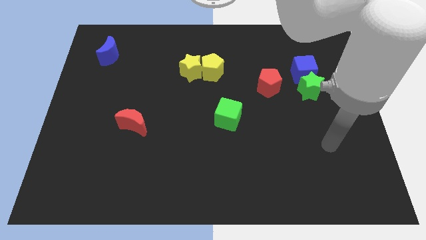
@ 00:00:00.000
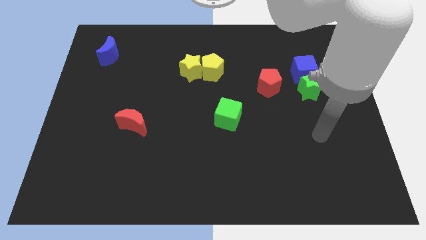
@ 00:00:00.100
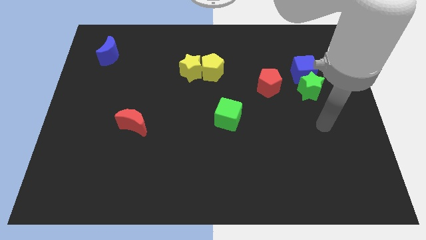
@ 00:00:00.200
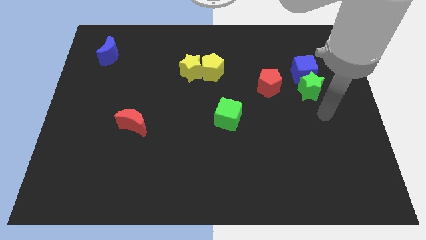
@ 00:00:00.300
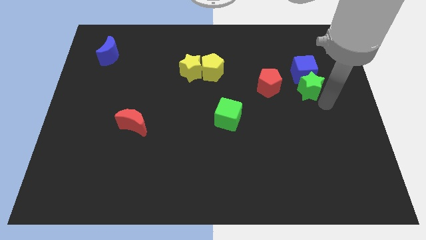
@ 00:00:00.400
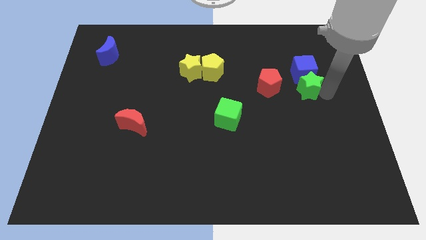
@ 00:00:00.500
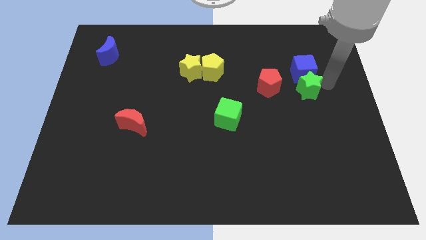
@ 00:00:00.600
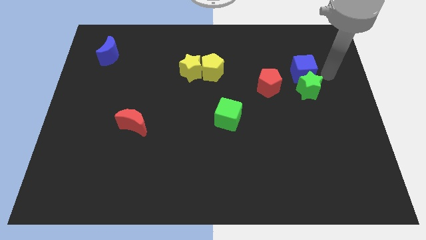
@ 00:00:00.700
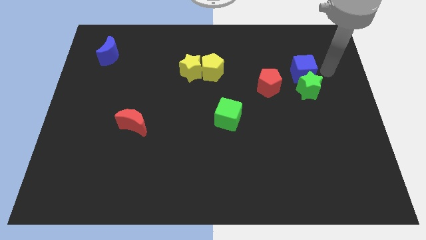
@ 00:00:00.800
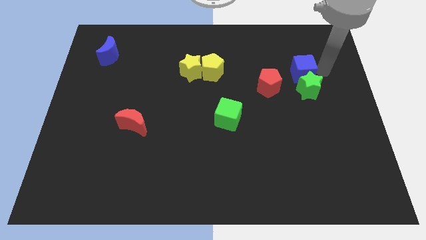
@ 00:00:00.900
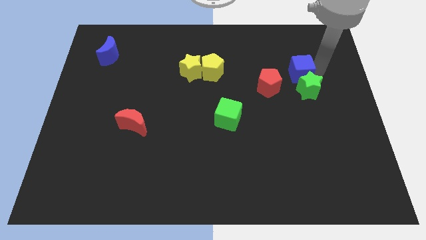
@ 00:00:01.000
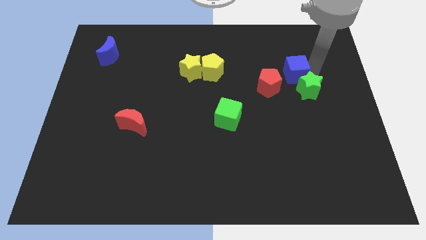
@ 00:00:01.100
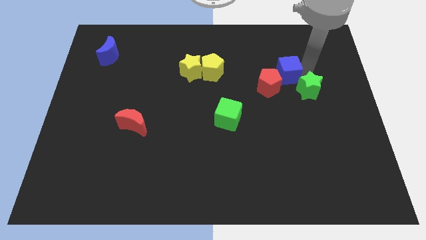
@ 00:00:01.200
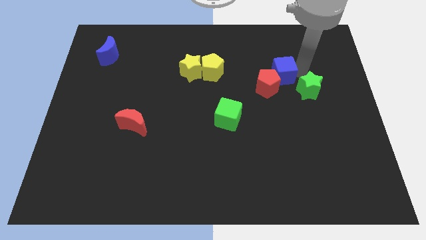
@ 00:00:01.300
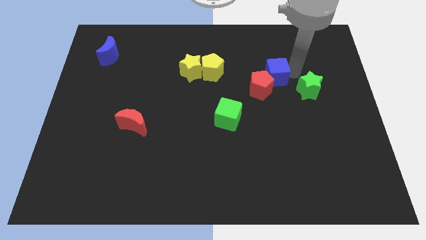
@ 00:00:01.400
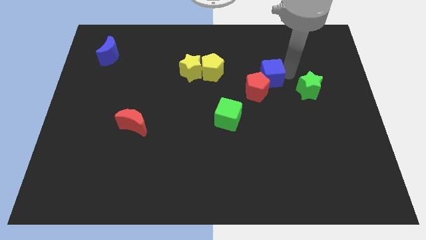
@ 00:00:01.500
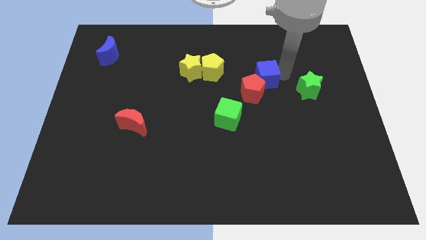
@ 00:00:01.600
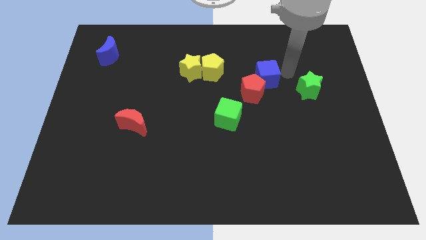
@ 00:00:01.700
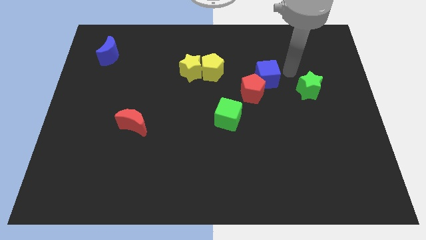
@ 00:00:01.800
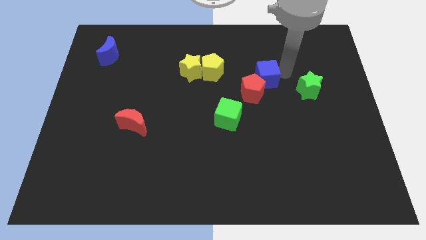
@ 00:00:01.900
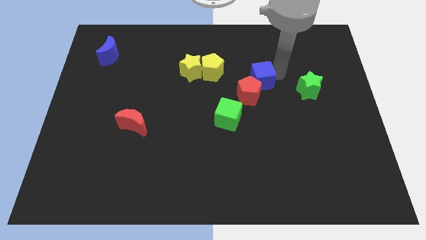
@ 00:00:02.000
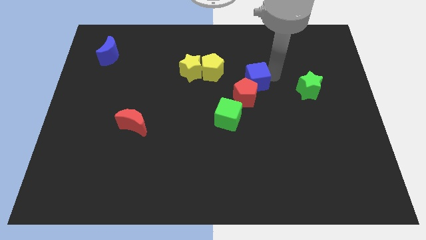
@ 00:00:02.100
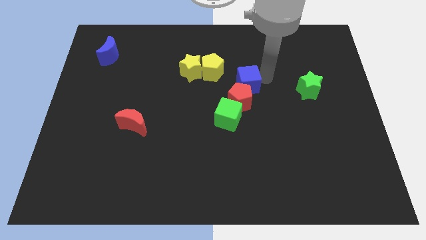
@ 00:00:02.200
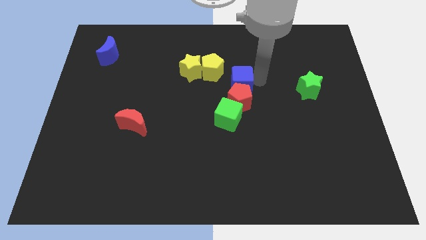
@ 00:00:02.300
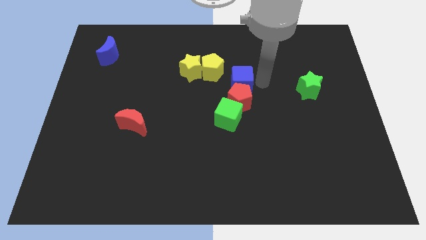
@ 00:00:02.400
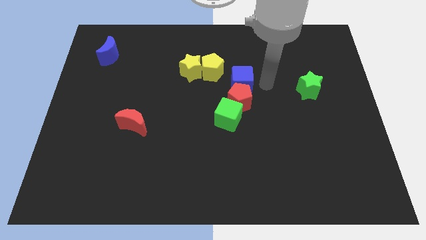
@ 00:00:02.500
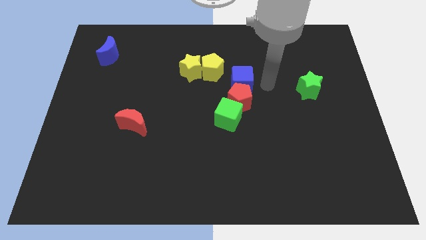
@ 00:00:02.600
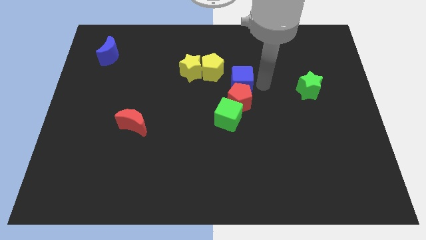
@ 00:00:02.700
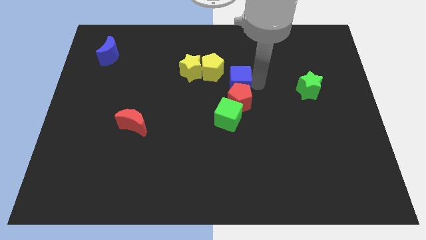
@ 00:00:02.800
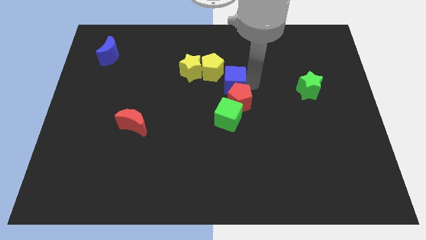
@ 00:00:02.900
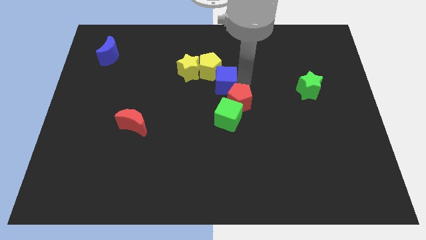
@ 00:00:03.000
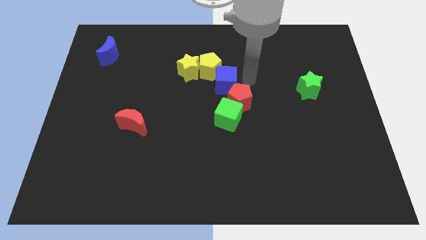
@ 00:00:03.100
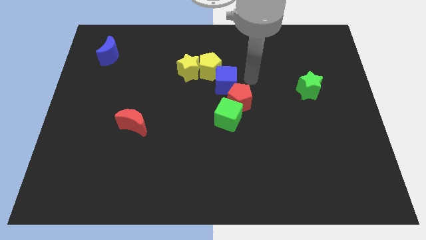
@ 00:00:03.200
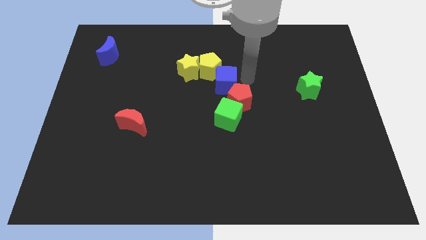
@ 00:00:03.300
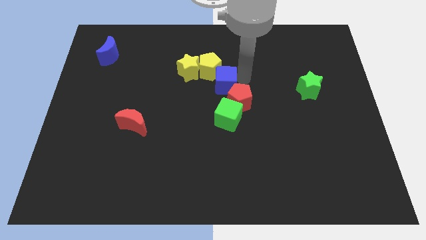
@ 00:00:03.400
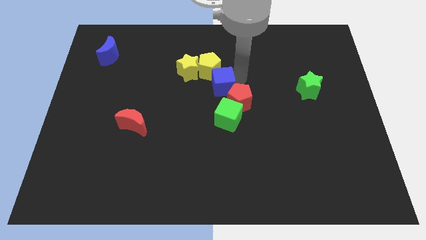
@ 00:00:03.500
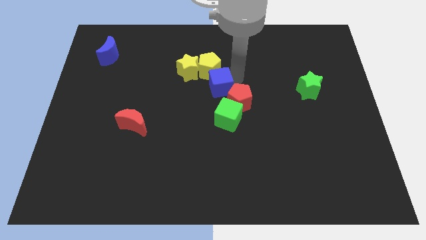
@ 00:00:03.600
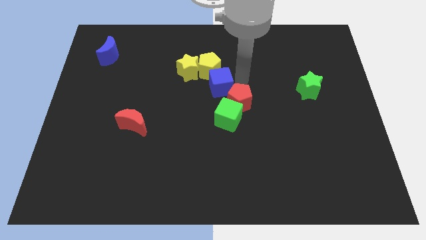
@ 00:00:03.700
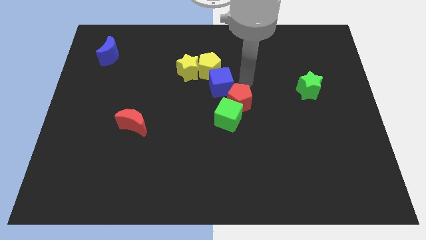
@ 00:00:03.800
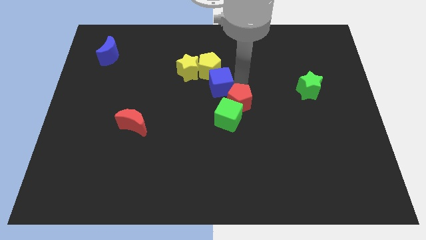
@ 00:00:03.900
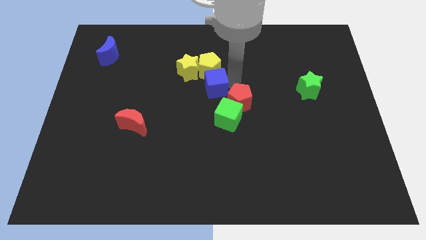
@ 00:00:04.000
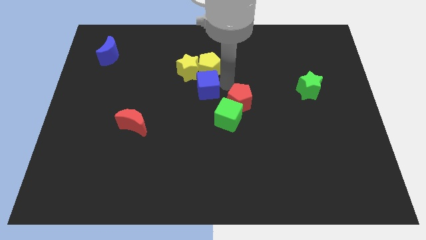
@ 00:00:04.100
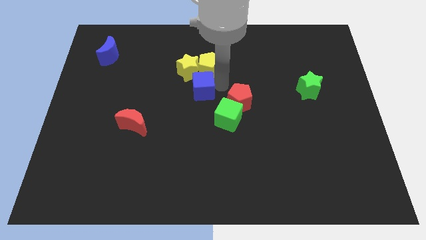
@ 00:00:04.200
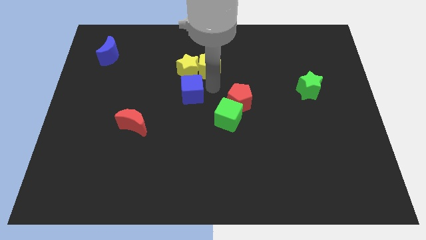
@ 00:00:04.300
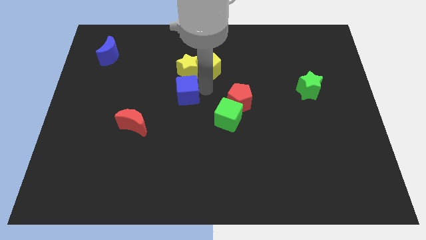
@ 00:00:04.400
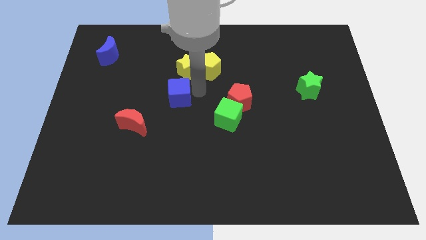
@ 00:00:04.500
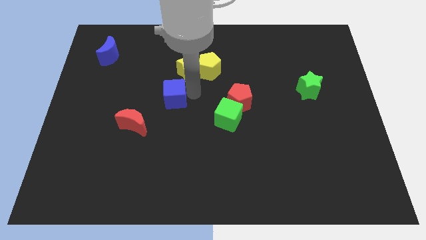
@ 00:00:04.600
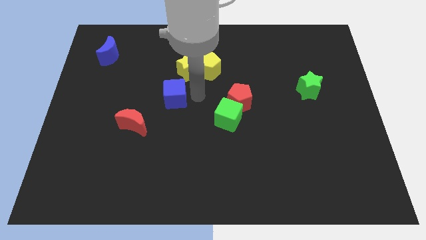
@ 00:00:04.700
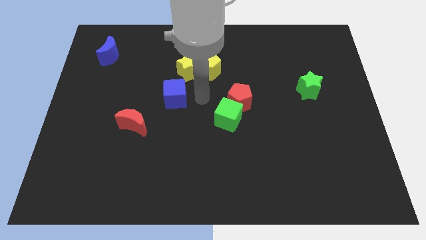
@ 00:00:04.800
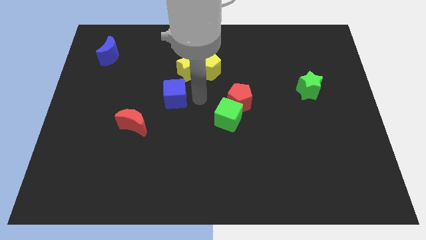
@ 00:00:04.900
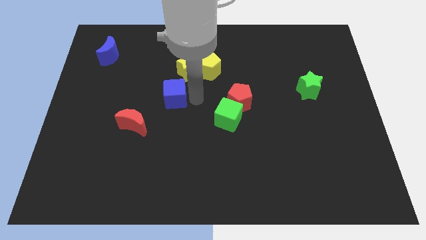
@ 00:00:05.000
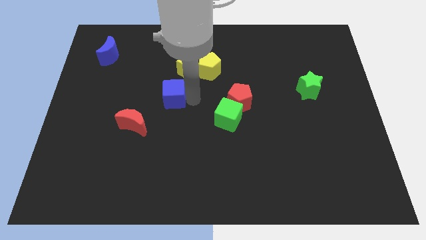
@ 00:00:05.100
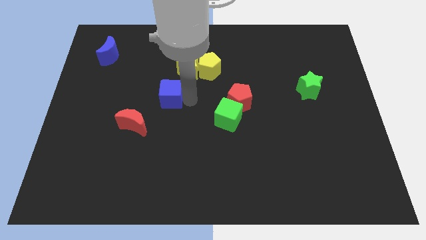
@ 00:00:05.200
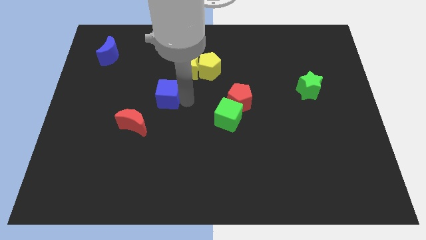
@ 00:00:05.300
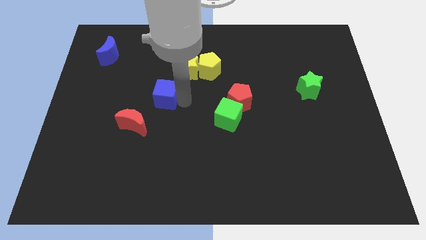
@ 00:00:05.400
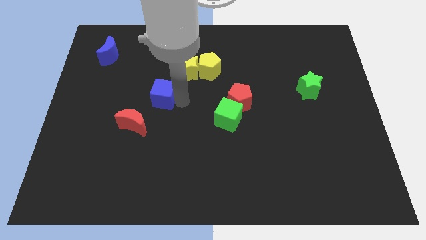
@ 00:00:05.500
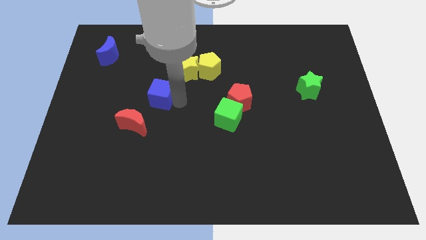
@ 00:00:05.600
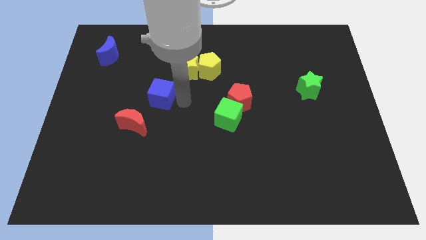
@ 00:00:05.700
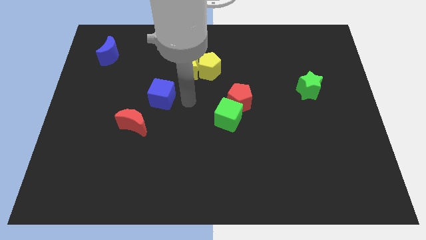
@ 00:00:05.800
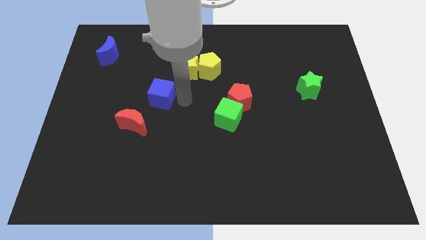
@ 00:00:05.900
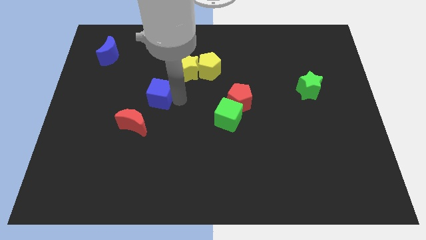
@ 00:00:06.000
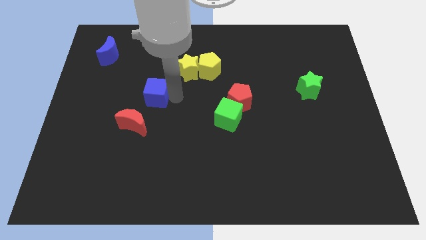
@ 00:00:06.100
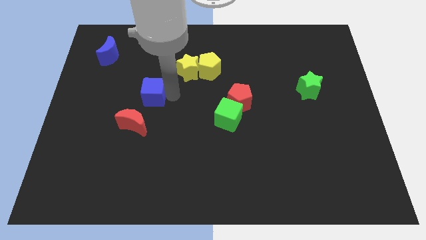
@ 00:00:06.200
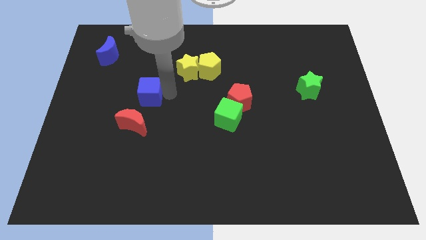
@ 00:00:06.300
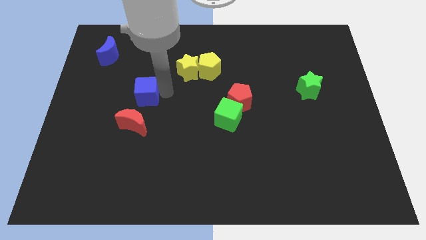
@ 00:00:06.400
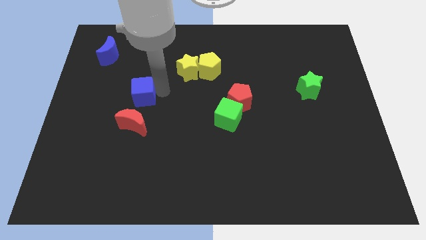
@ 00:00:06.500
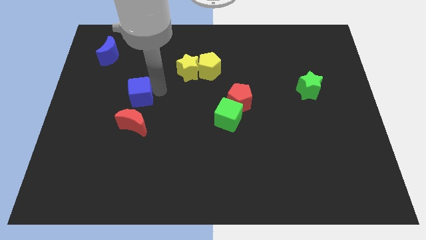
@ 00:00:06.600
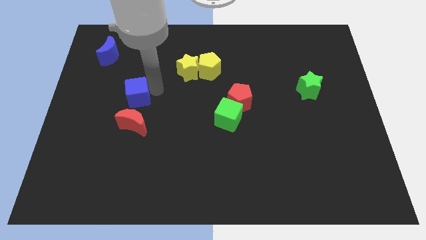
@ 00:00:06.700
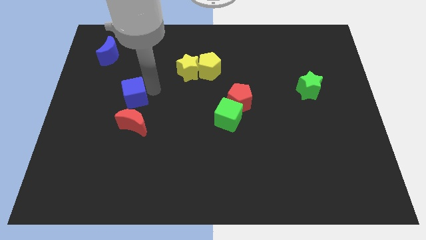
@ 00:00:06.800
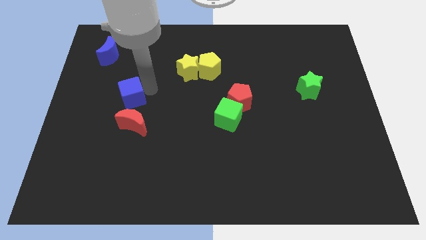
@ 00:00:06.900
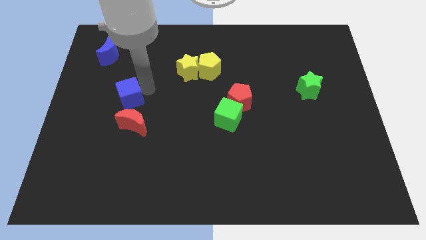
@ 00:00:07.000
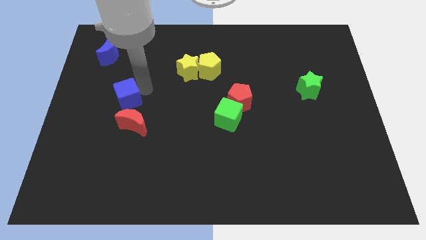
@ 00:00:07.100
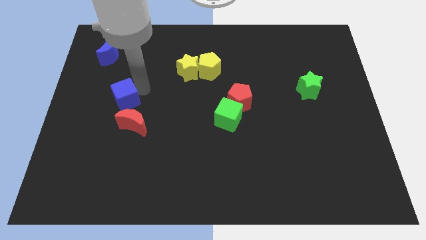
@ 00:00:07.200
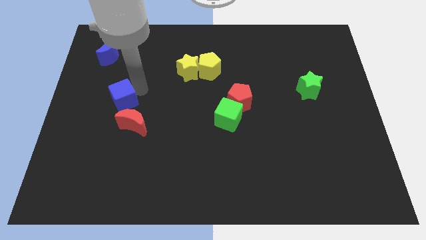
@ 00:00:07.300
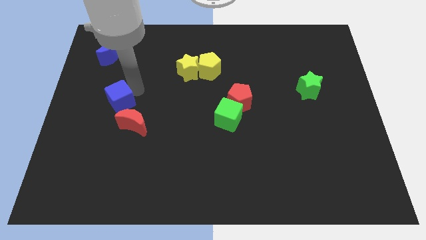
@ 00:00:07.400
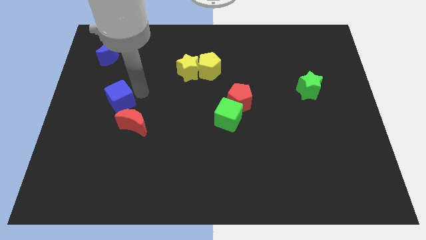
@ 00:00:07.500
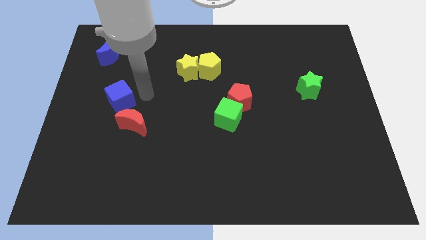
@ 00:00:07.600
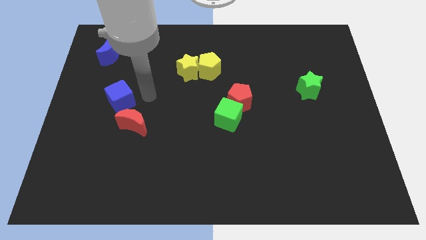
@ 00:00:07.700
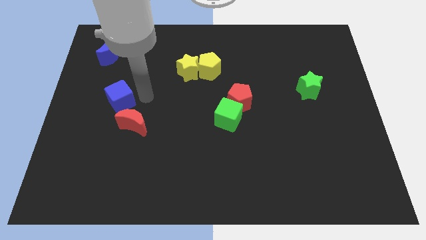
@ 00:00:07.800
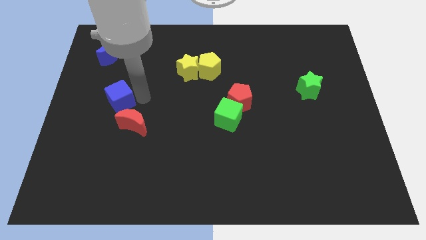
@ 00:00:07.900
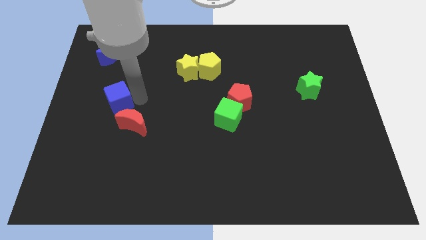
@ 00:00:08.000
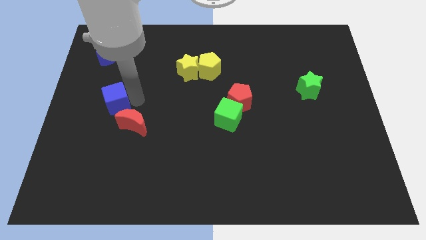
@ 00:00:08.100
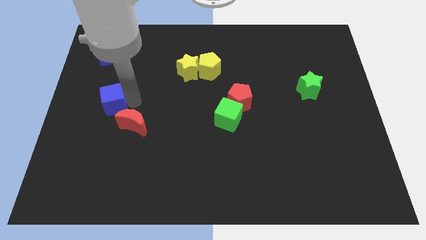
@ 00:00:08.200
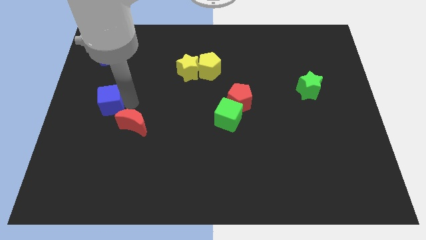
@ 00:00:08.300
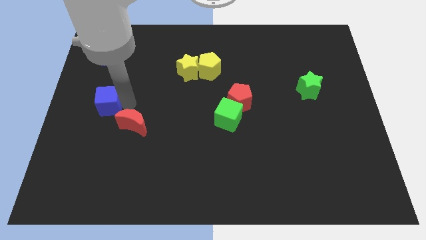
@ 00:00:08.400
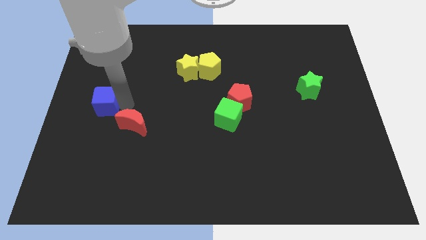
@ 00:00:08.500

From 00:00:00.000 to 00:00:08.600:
put the blue cube to the left side of the board
